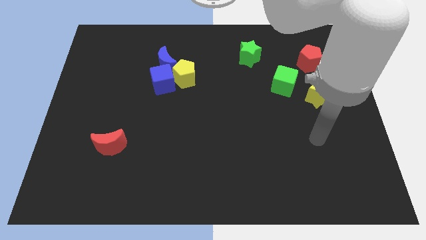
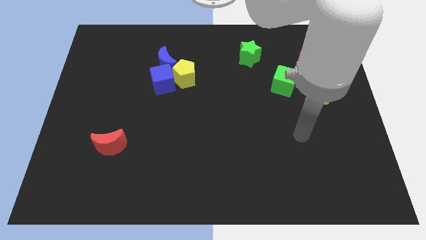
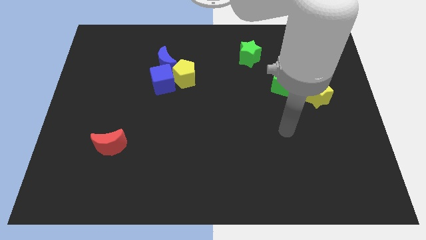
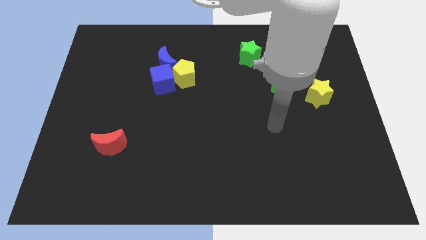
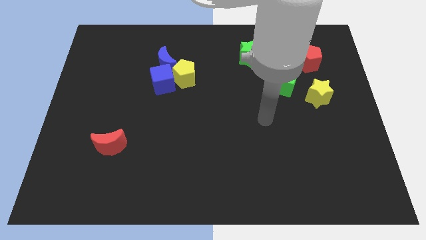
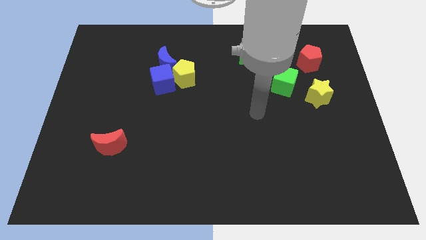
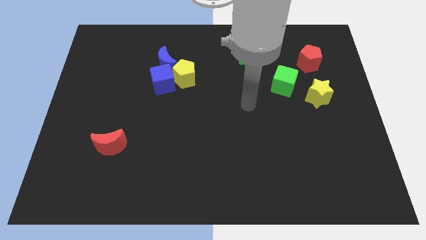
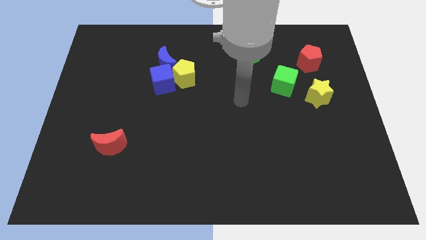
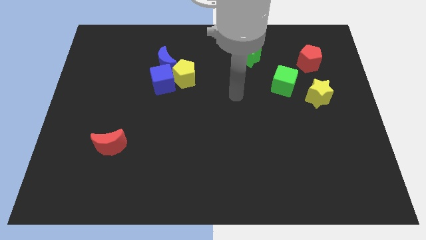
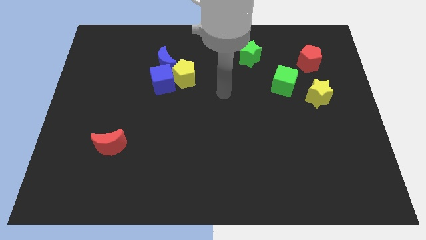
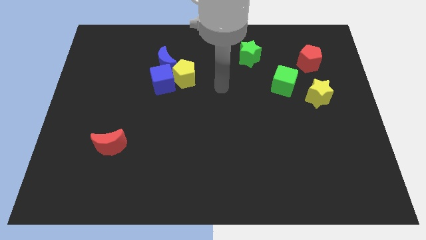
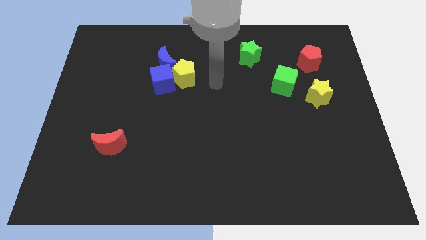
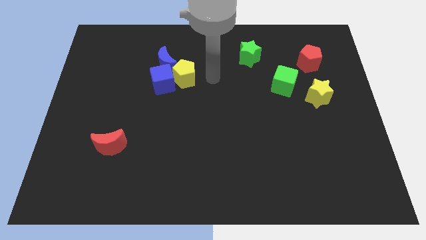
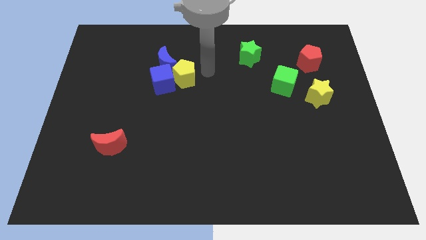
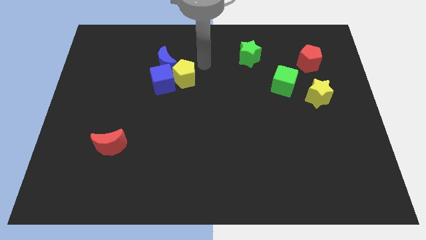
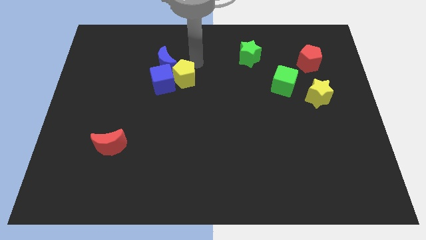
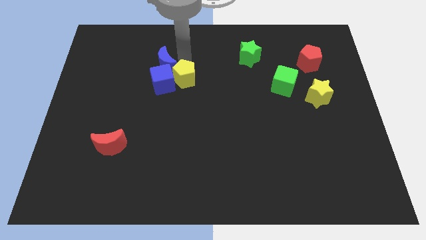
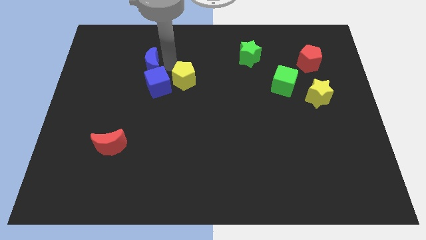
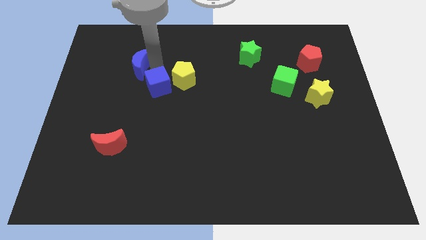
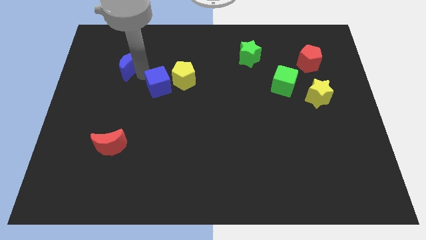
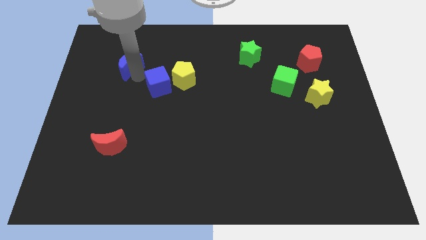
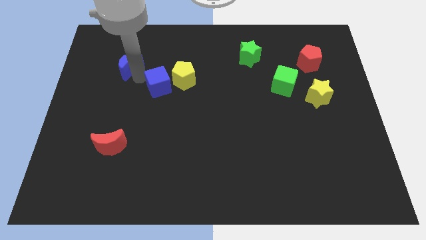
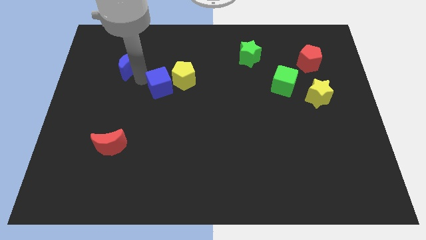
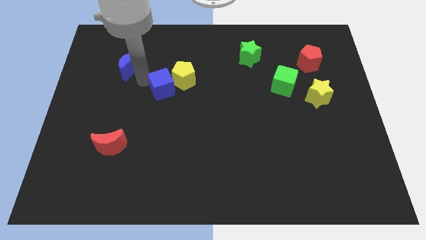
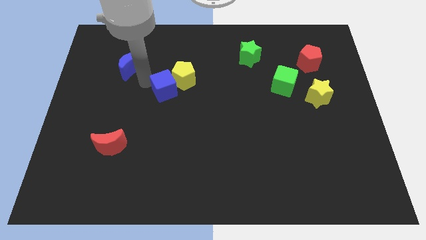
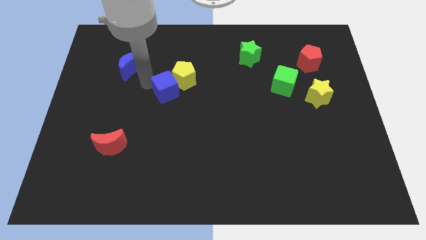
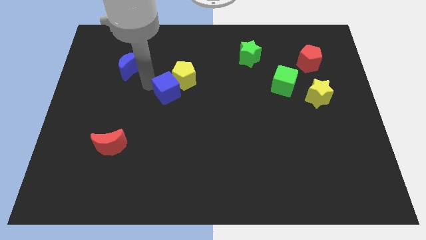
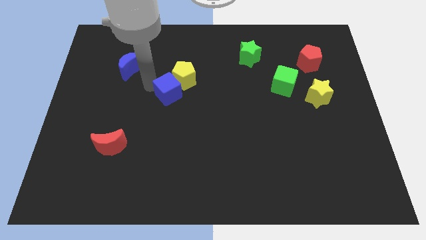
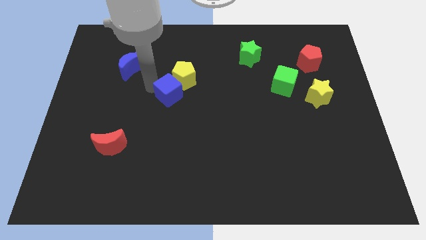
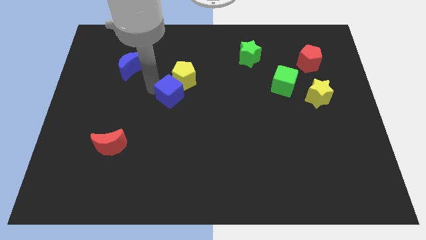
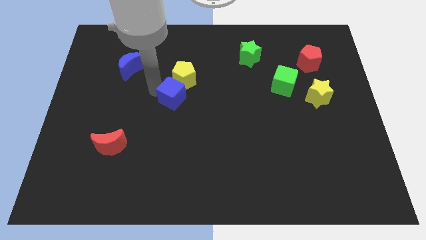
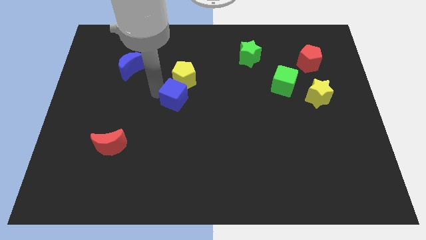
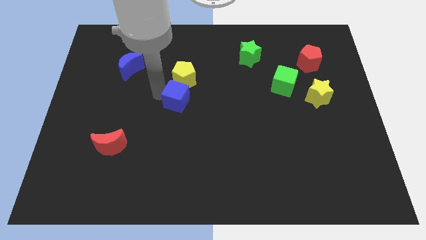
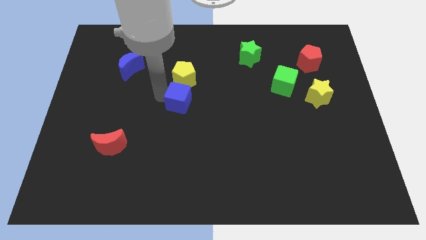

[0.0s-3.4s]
slightly move the blue cube diagonally down and right

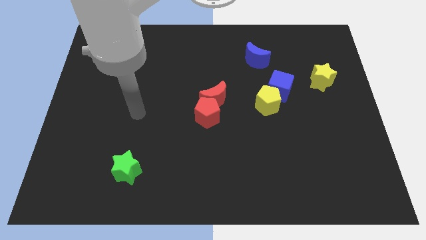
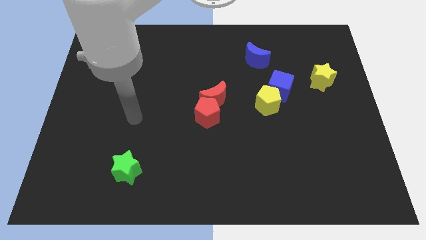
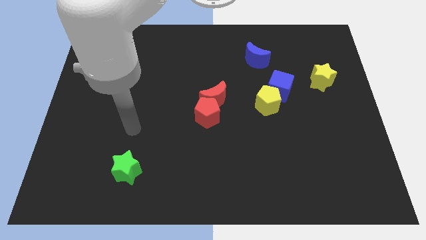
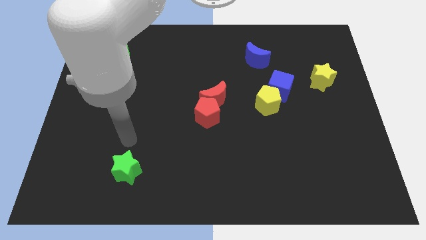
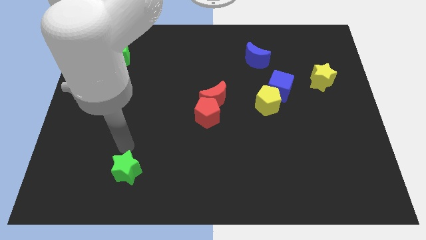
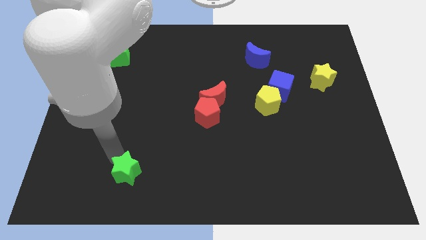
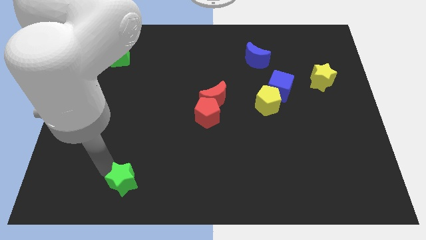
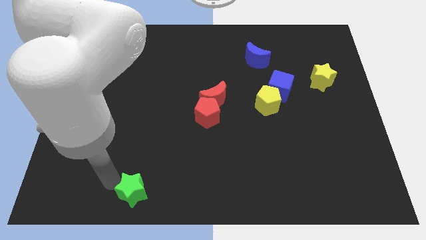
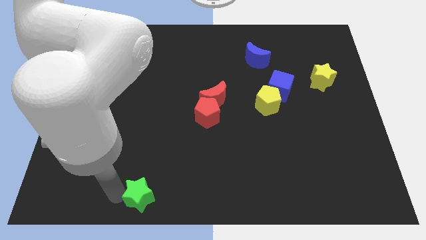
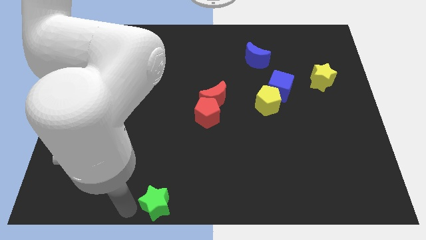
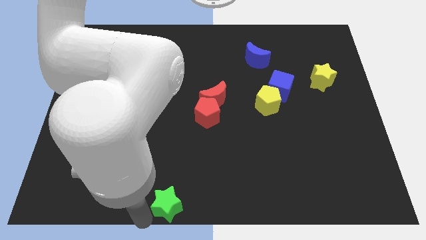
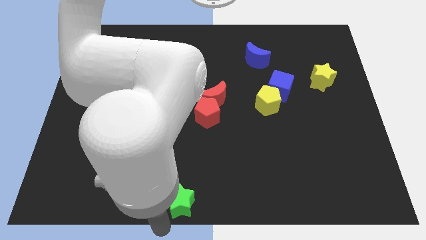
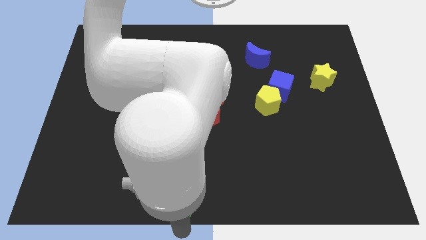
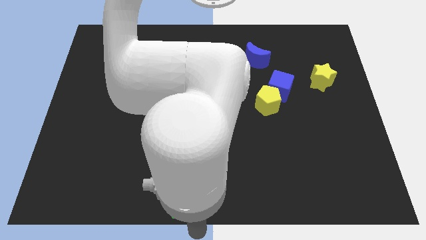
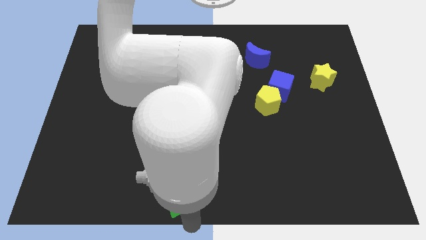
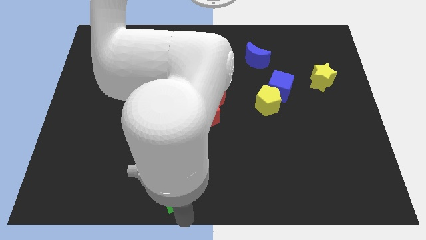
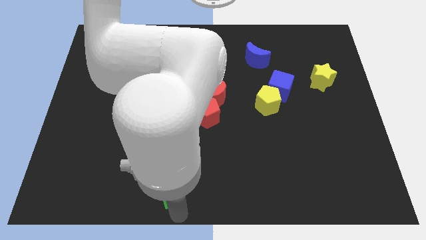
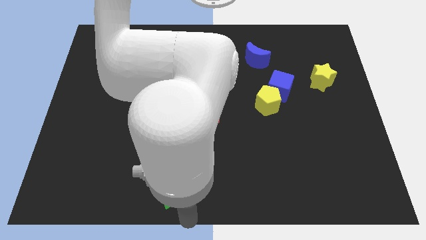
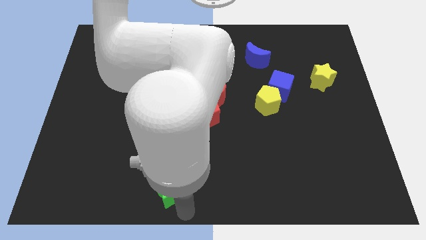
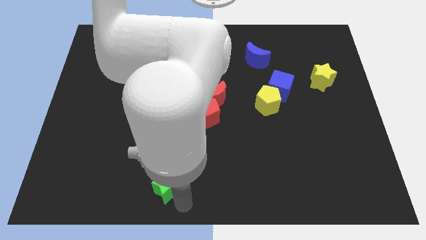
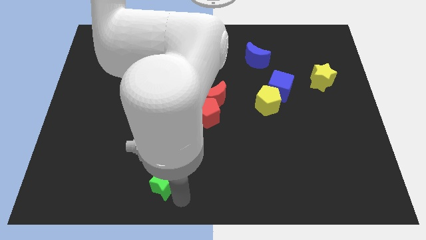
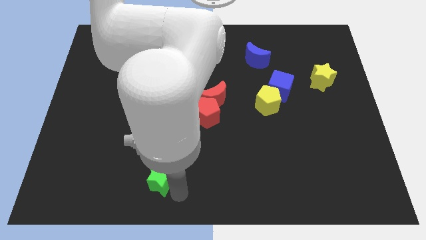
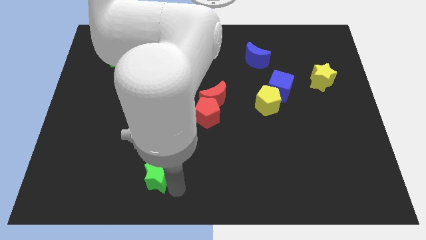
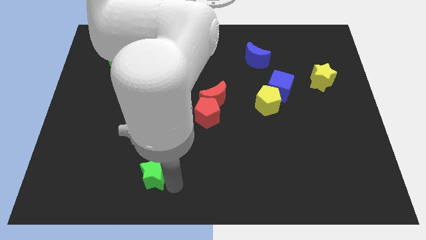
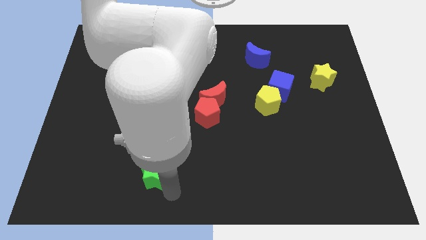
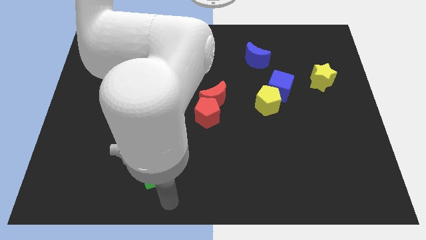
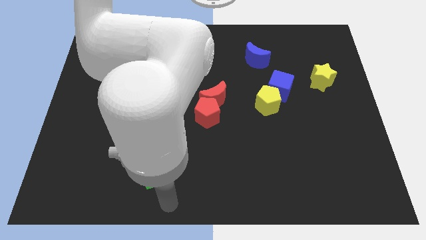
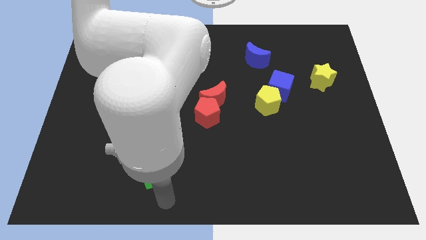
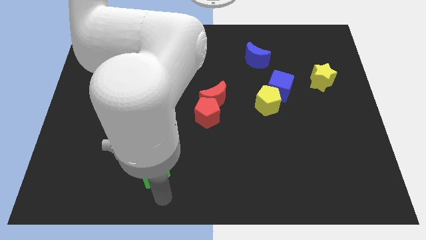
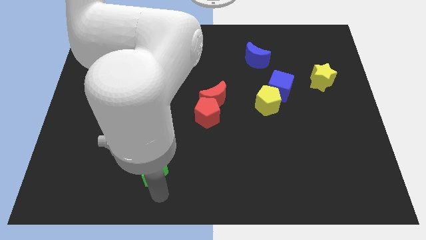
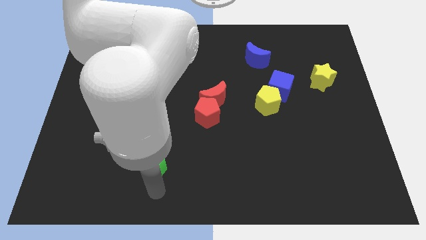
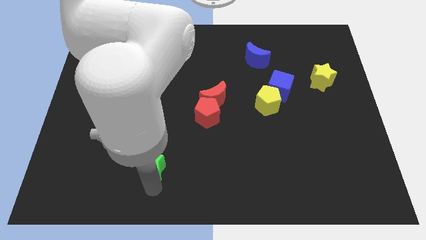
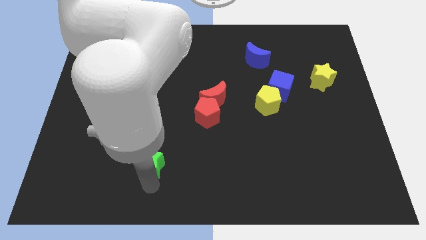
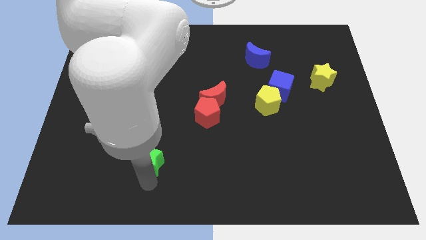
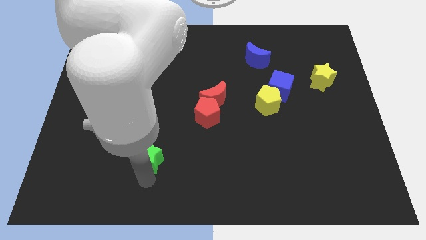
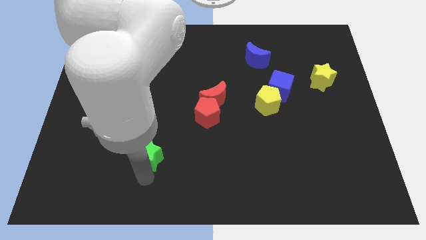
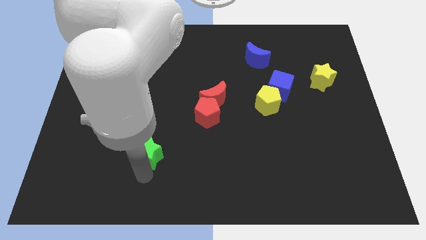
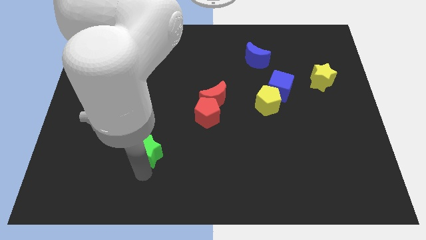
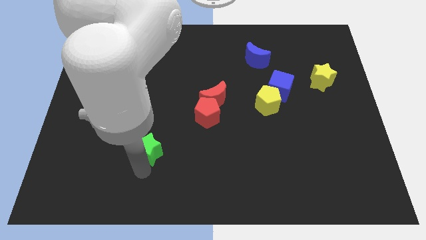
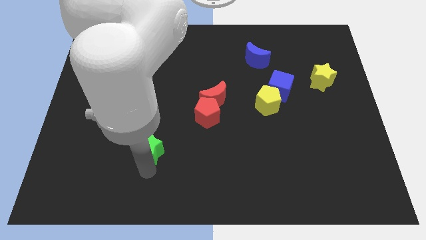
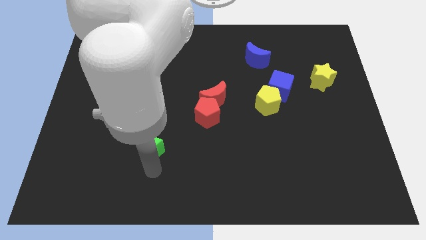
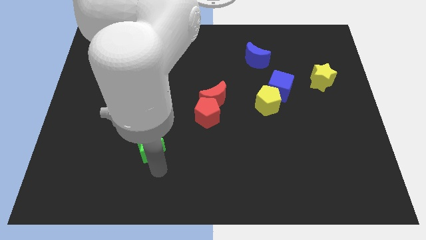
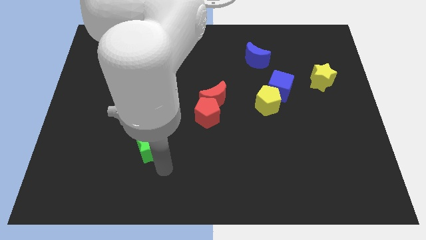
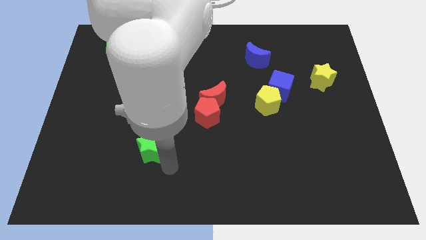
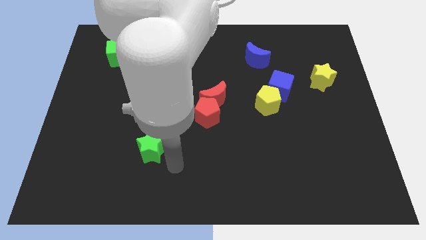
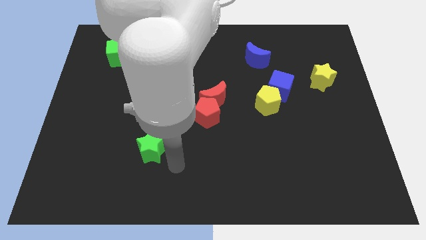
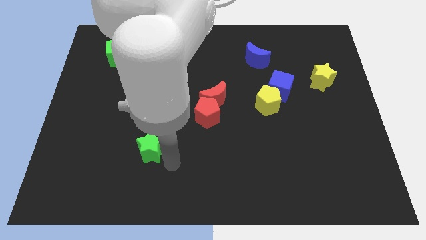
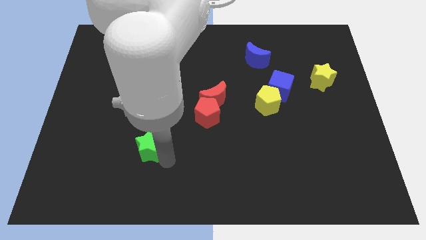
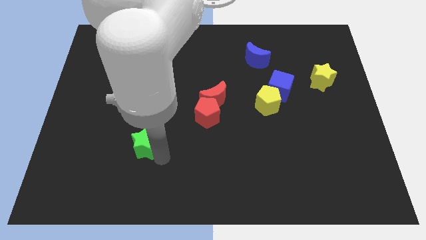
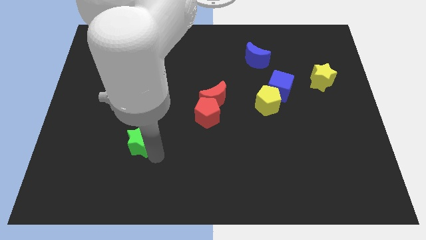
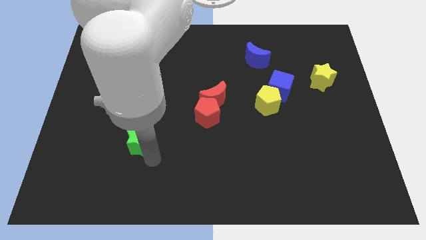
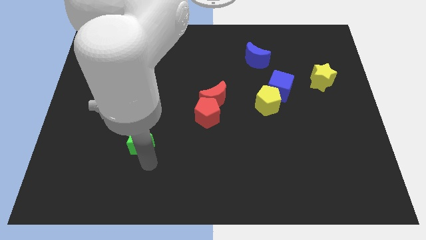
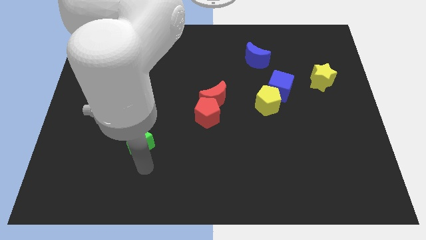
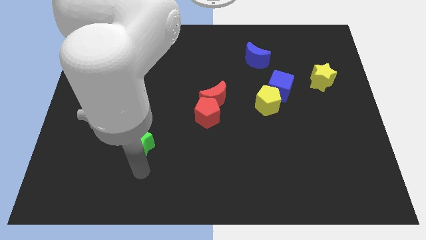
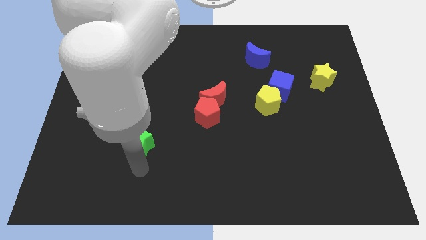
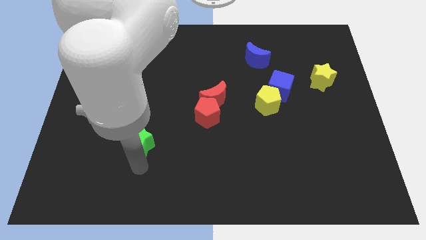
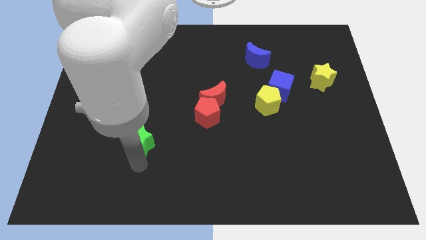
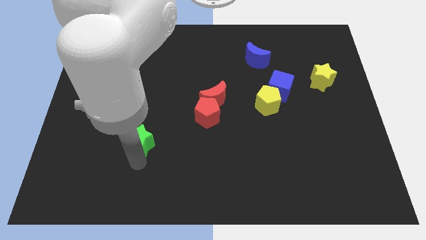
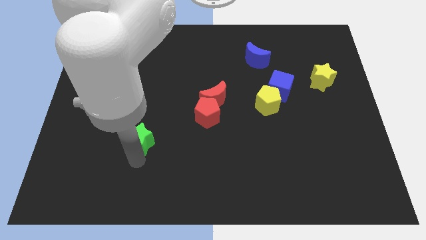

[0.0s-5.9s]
move the green star a little upwards
